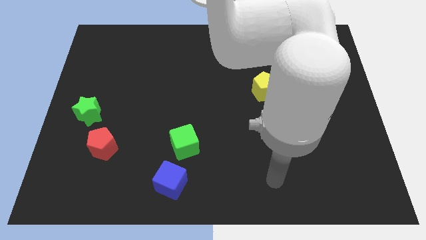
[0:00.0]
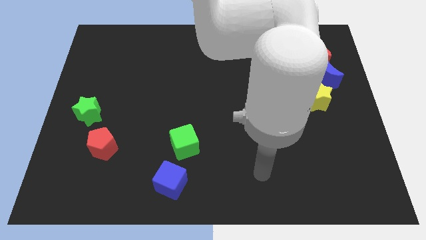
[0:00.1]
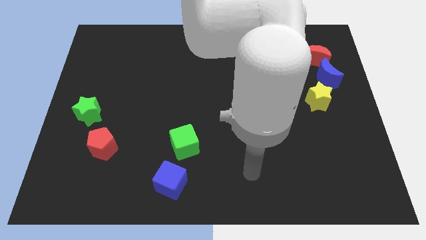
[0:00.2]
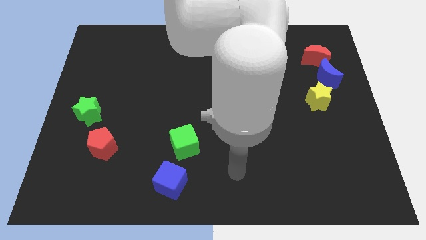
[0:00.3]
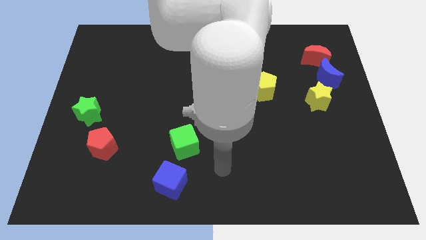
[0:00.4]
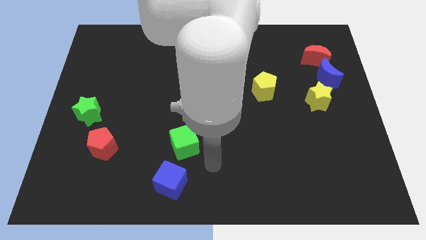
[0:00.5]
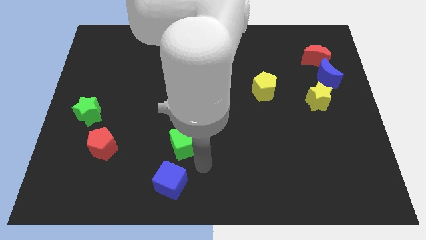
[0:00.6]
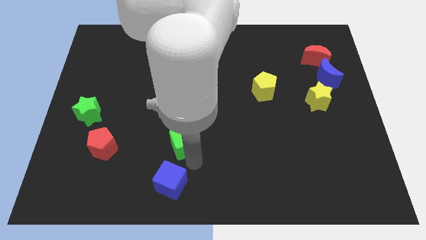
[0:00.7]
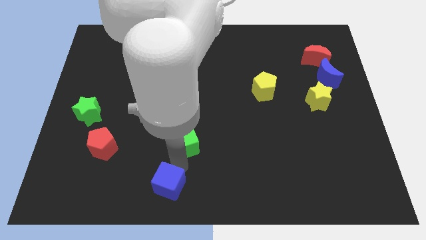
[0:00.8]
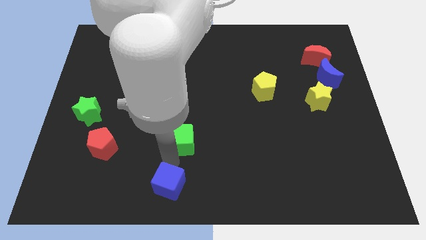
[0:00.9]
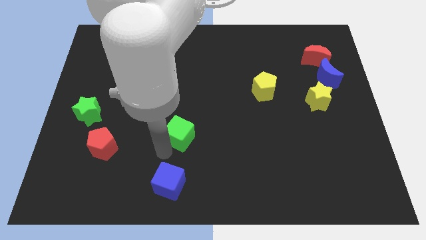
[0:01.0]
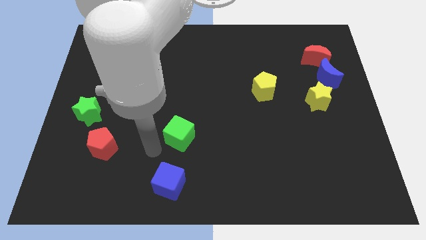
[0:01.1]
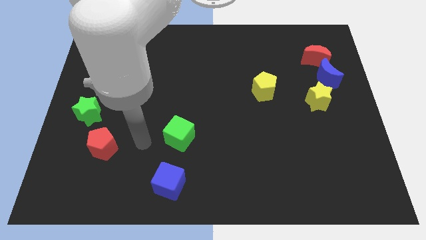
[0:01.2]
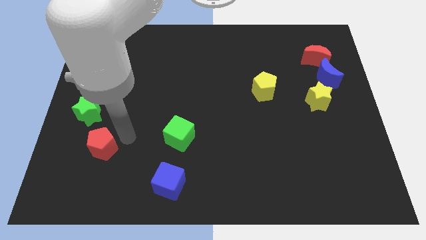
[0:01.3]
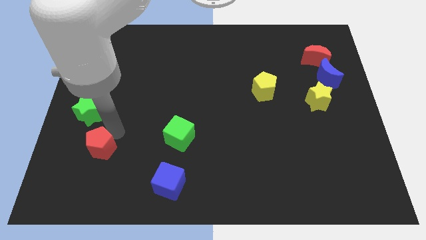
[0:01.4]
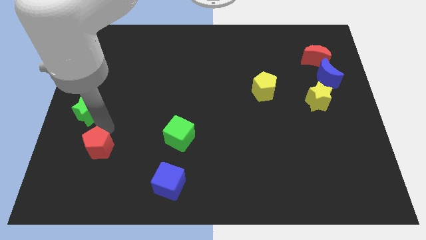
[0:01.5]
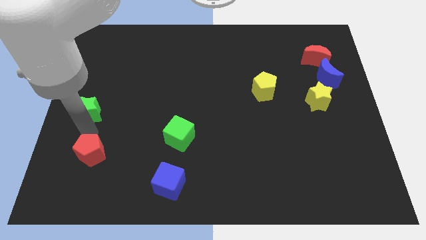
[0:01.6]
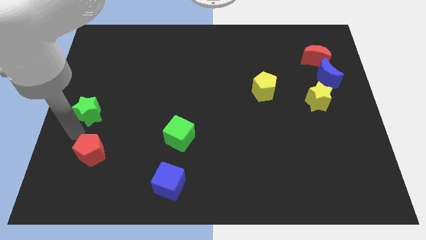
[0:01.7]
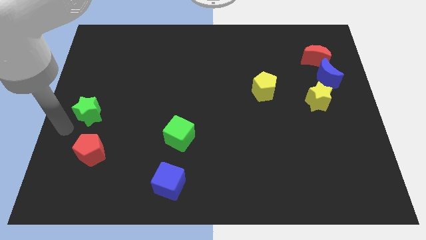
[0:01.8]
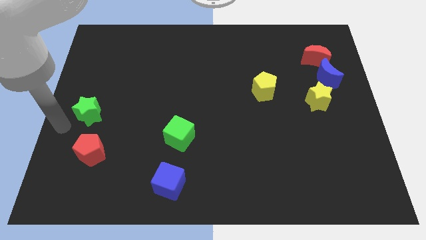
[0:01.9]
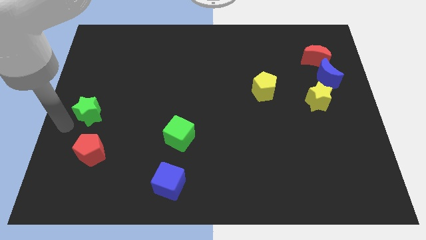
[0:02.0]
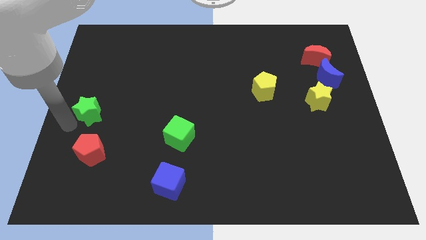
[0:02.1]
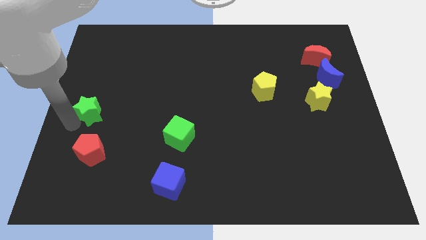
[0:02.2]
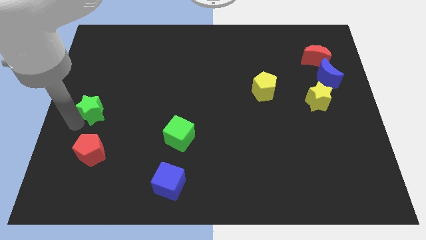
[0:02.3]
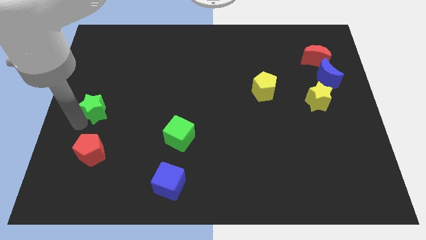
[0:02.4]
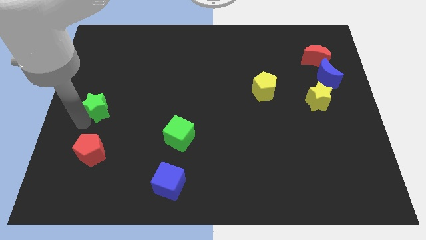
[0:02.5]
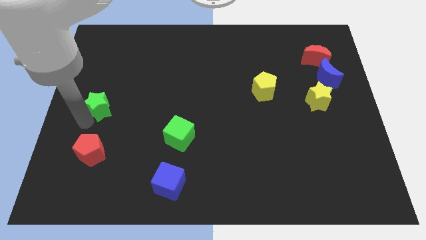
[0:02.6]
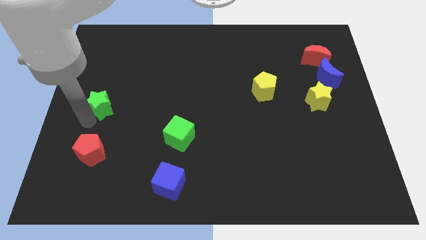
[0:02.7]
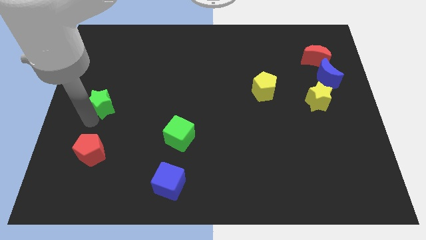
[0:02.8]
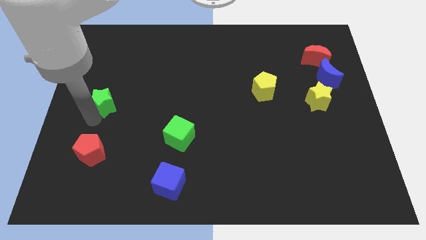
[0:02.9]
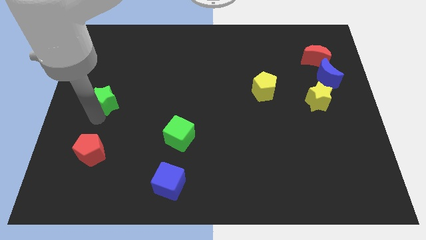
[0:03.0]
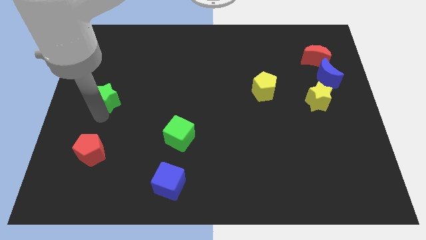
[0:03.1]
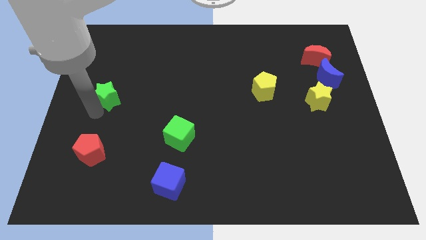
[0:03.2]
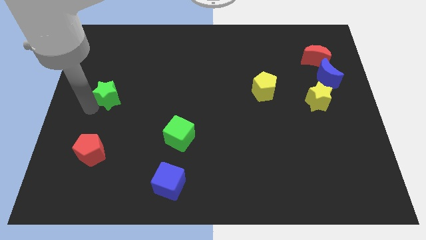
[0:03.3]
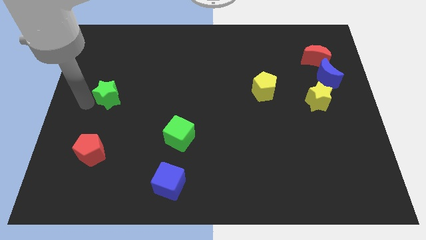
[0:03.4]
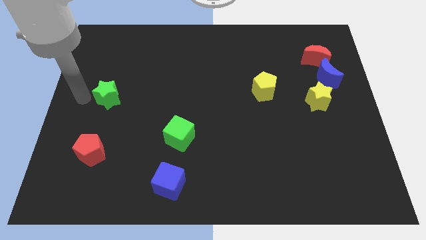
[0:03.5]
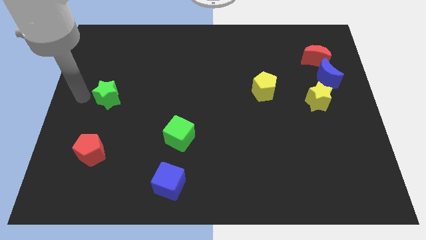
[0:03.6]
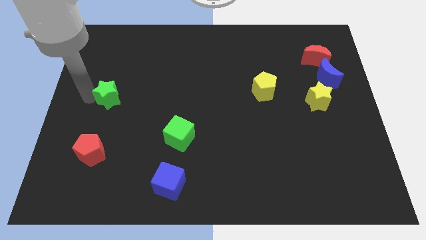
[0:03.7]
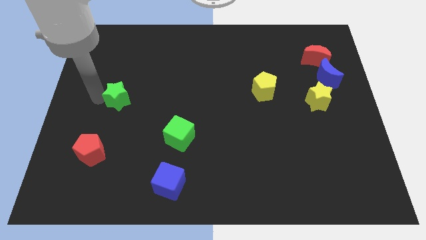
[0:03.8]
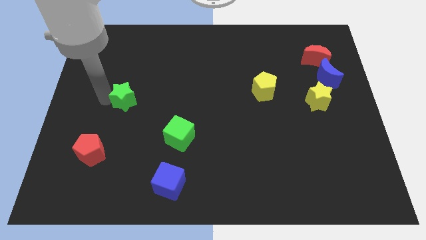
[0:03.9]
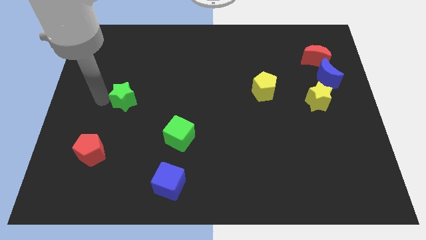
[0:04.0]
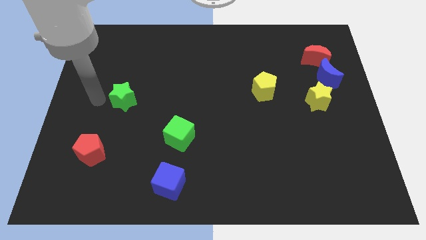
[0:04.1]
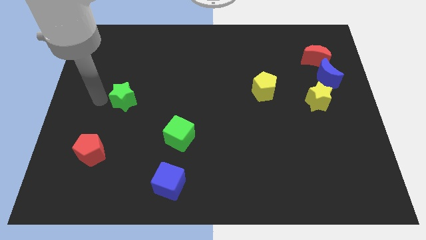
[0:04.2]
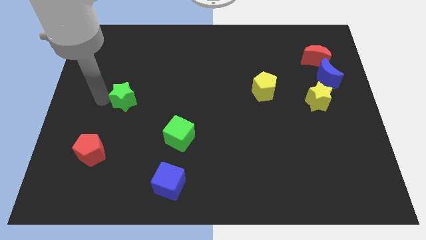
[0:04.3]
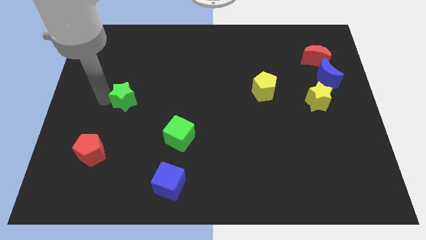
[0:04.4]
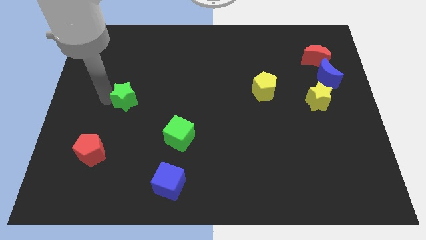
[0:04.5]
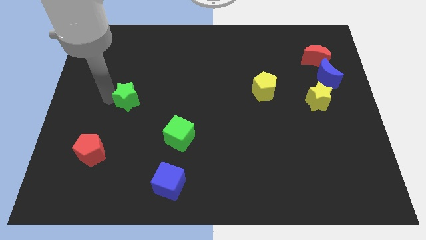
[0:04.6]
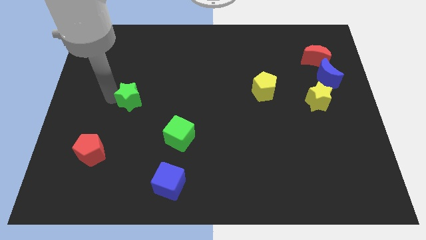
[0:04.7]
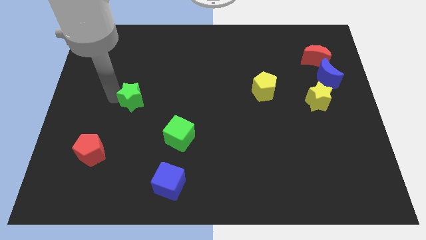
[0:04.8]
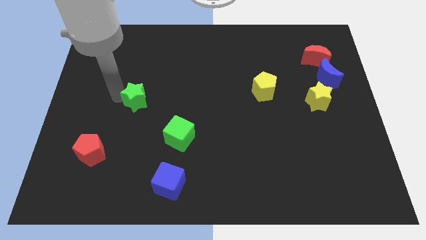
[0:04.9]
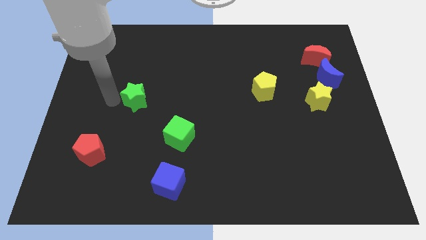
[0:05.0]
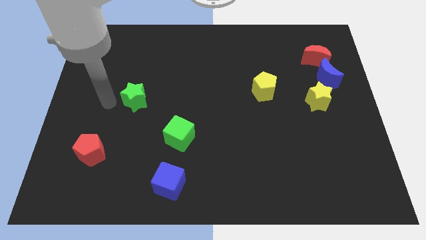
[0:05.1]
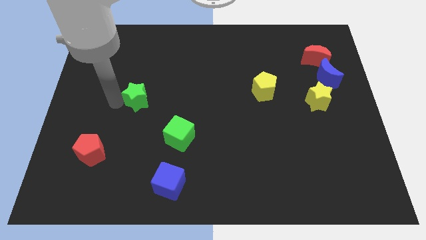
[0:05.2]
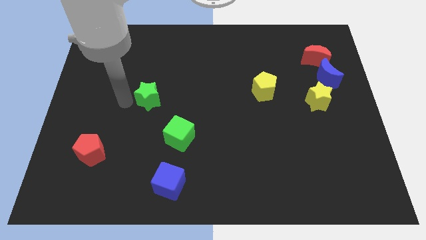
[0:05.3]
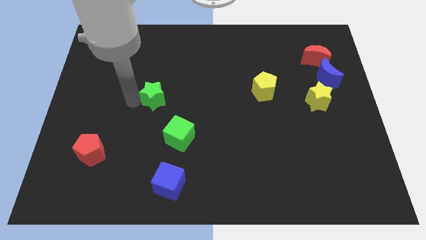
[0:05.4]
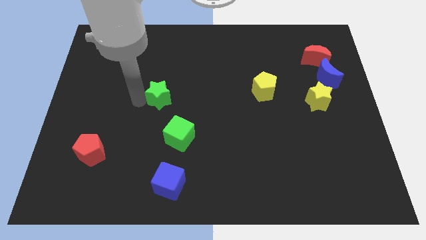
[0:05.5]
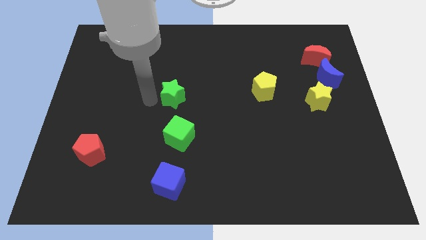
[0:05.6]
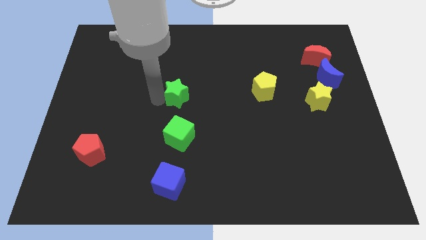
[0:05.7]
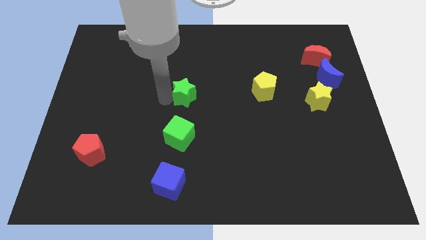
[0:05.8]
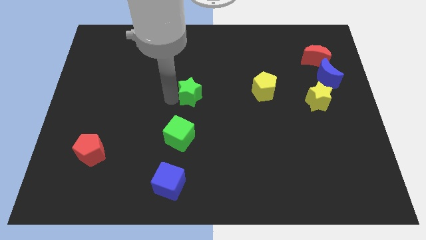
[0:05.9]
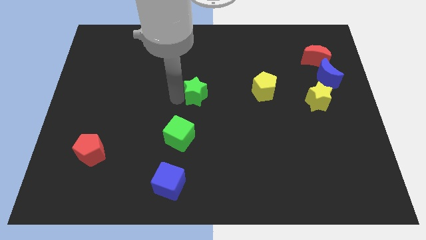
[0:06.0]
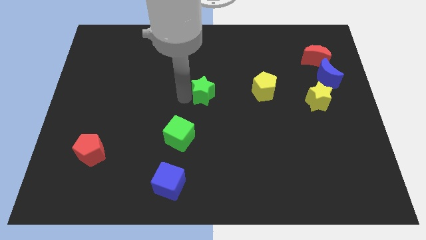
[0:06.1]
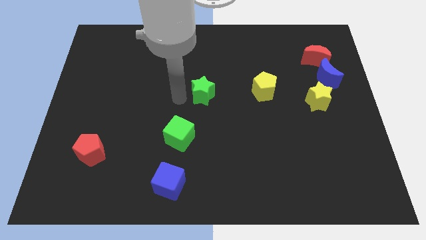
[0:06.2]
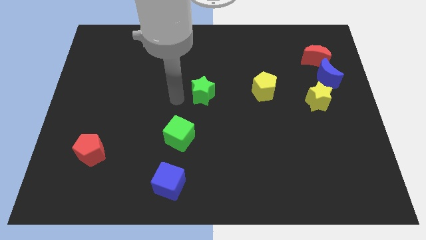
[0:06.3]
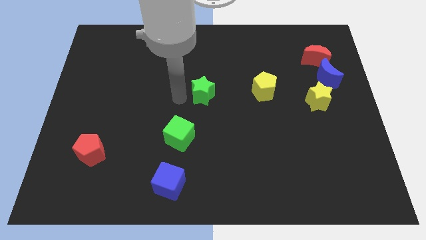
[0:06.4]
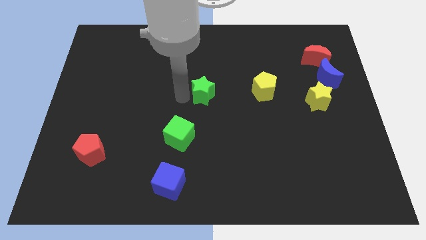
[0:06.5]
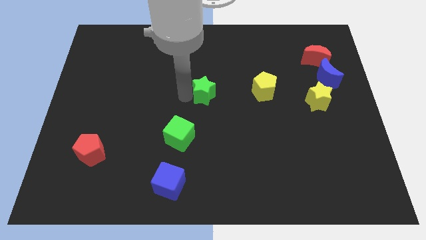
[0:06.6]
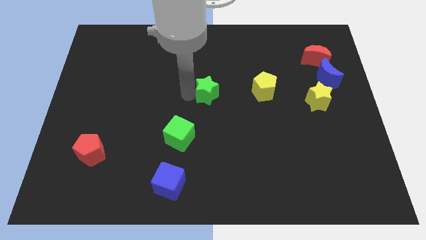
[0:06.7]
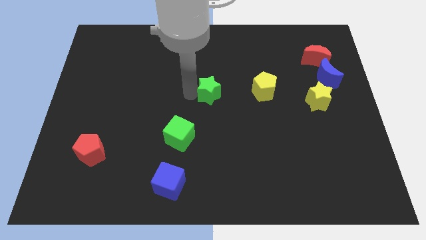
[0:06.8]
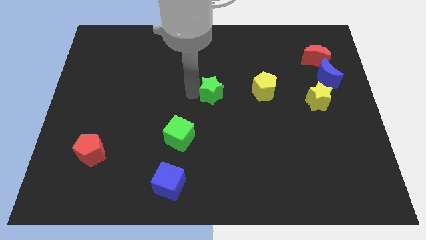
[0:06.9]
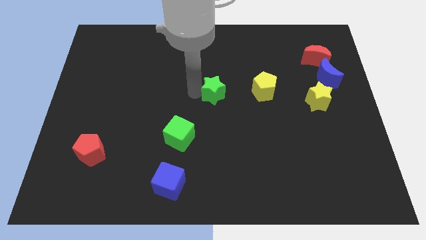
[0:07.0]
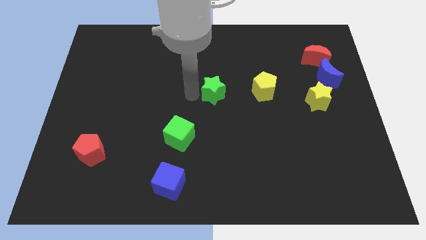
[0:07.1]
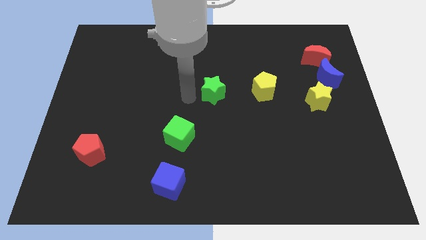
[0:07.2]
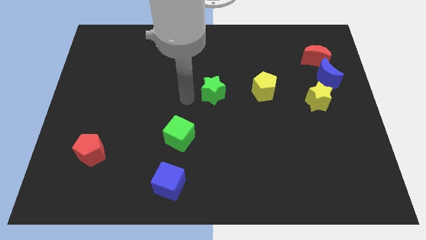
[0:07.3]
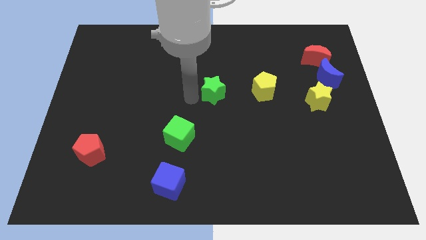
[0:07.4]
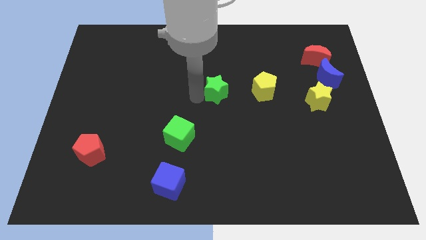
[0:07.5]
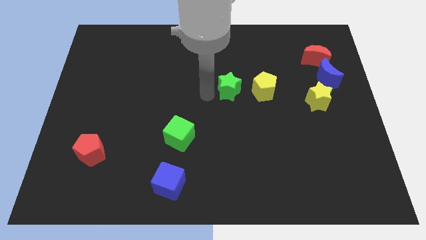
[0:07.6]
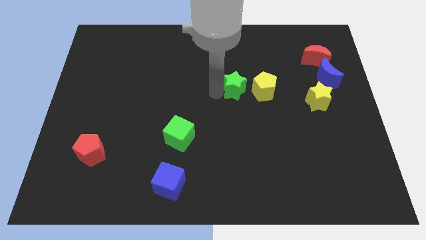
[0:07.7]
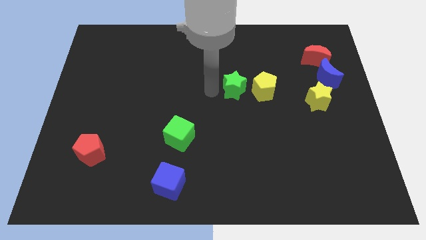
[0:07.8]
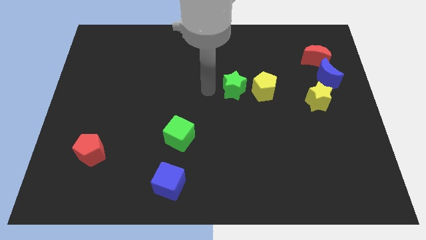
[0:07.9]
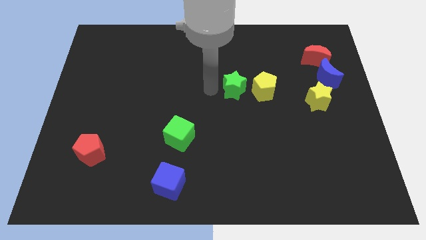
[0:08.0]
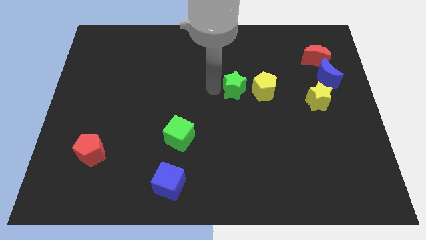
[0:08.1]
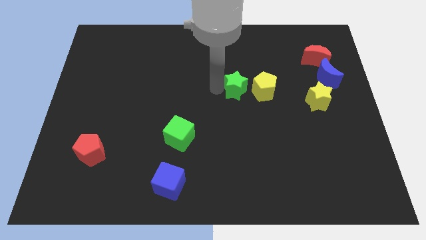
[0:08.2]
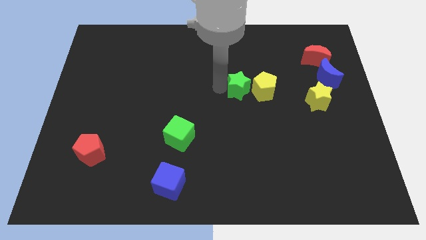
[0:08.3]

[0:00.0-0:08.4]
move the green star next to the yellow pentagon
